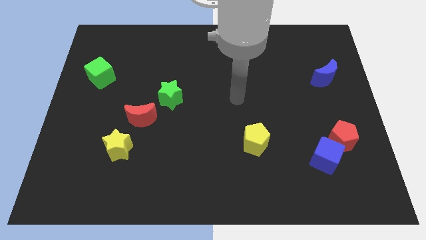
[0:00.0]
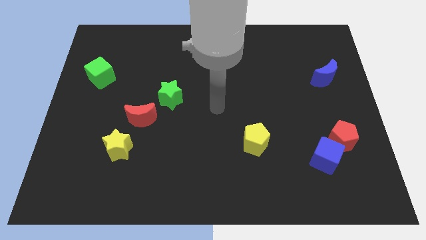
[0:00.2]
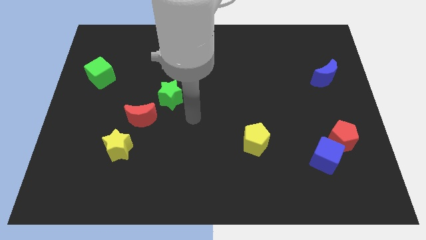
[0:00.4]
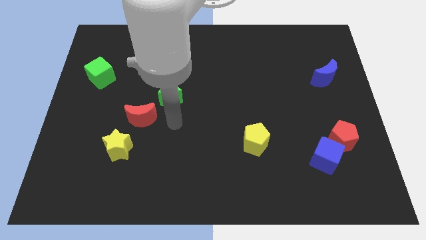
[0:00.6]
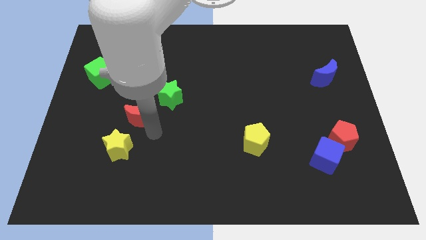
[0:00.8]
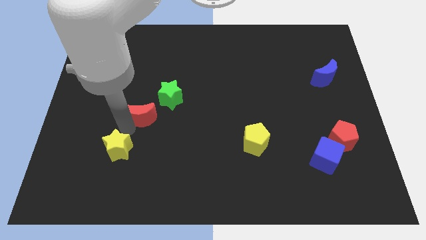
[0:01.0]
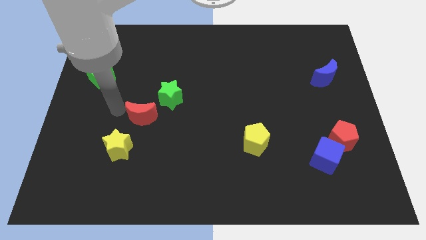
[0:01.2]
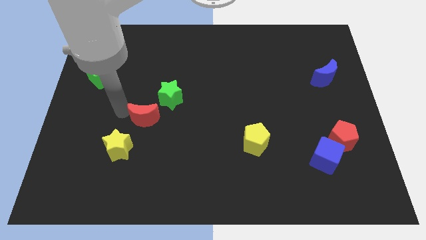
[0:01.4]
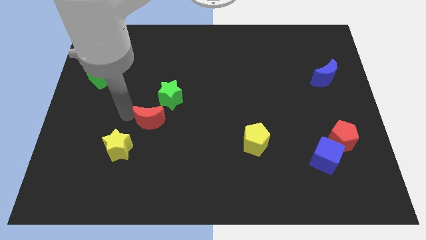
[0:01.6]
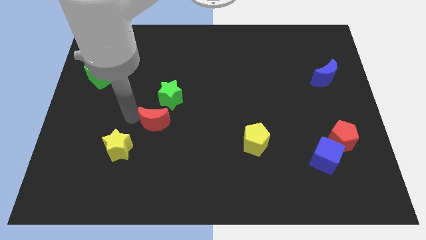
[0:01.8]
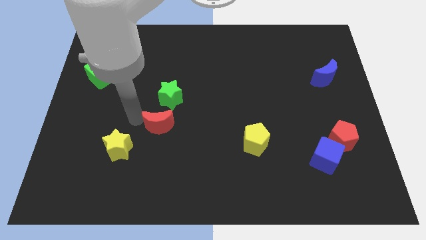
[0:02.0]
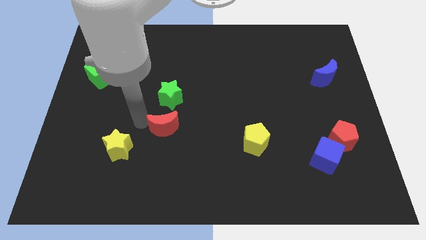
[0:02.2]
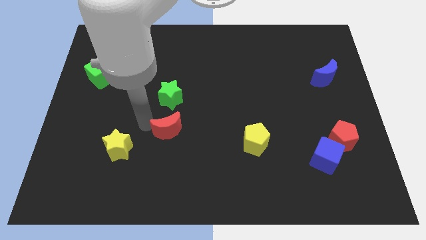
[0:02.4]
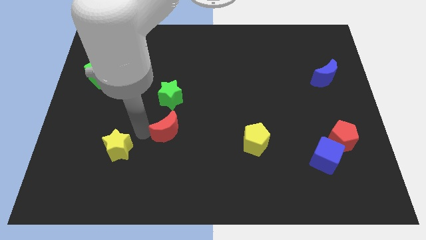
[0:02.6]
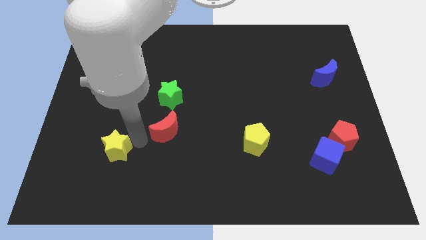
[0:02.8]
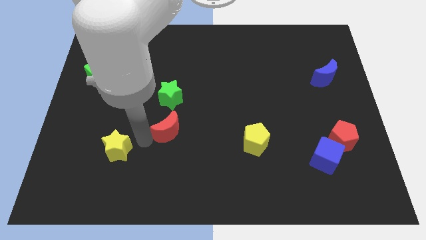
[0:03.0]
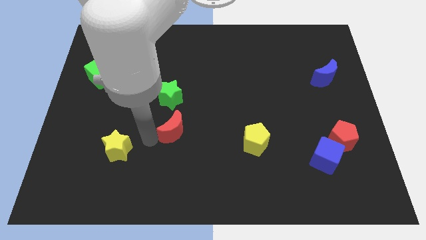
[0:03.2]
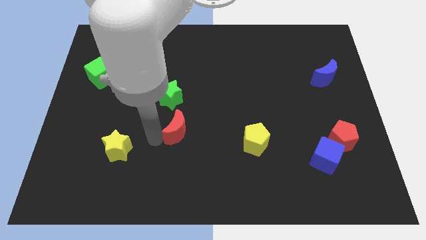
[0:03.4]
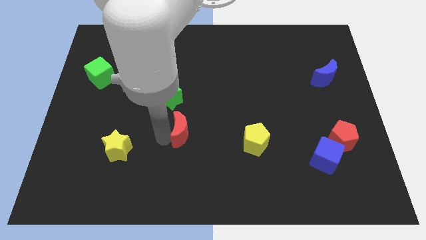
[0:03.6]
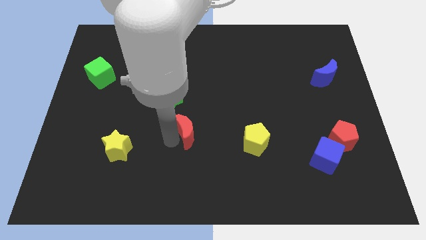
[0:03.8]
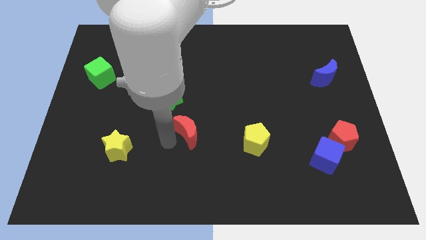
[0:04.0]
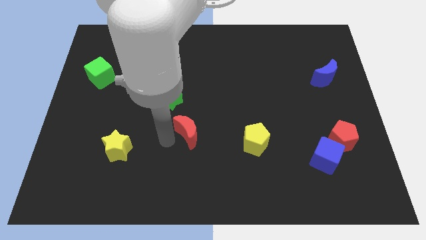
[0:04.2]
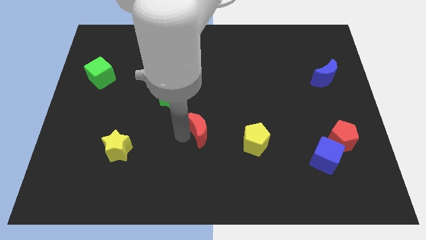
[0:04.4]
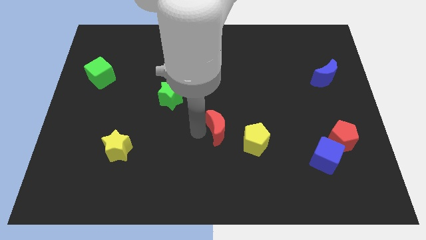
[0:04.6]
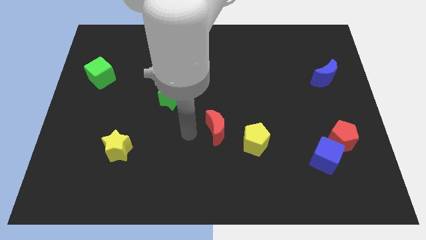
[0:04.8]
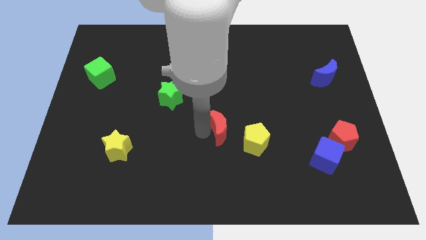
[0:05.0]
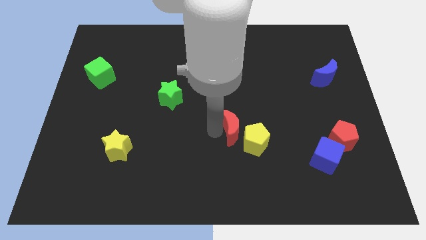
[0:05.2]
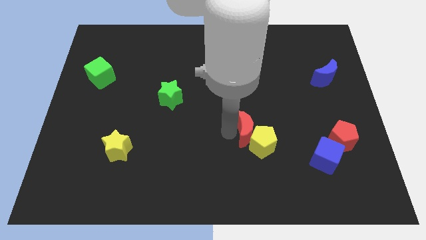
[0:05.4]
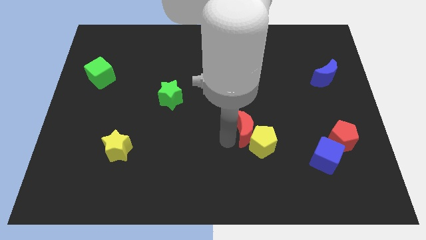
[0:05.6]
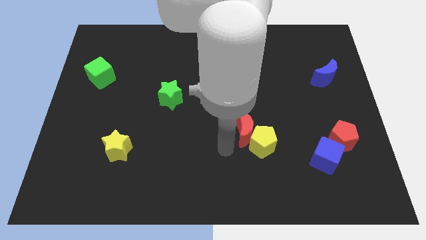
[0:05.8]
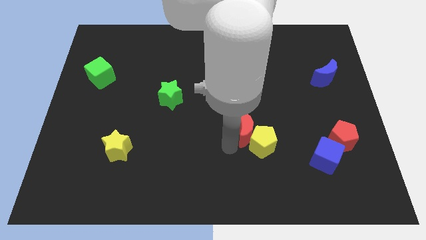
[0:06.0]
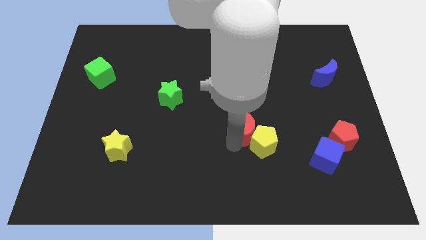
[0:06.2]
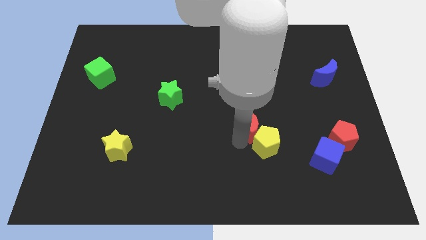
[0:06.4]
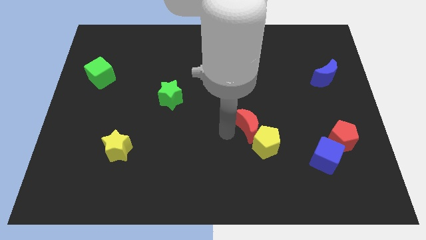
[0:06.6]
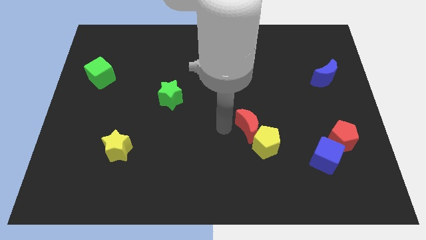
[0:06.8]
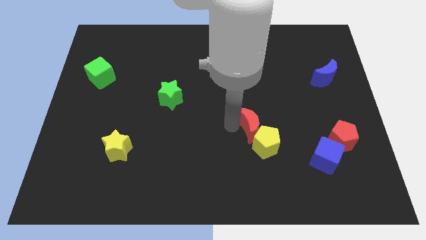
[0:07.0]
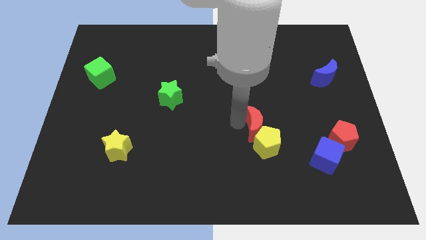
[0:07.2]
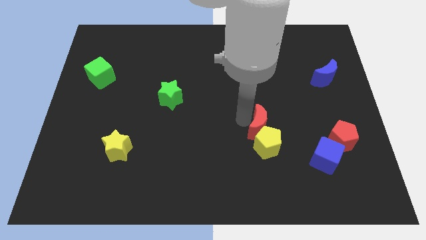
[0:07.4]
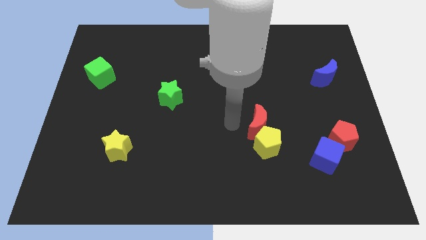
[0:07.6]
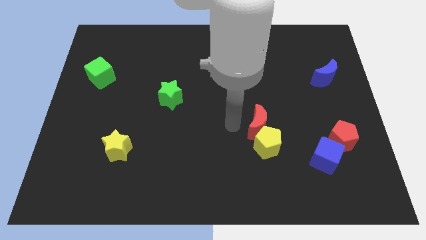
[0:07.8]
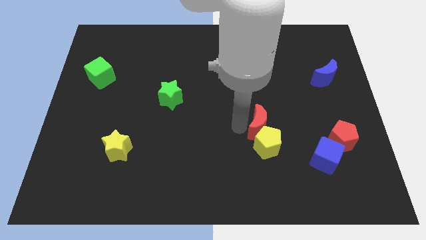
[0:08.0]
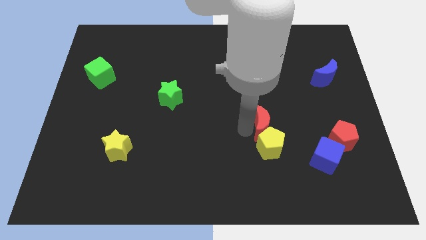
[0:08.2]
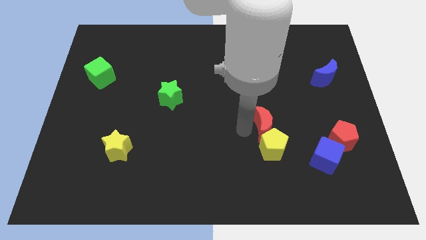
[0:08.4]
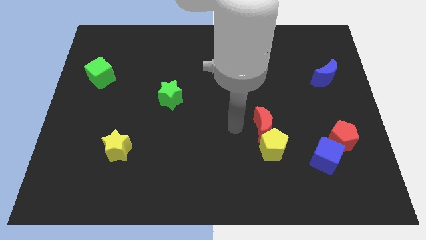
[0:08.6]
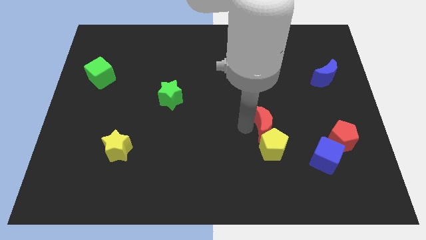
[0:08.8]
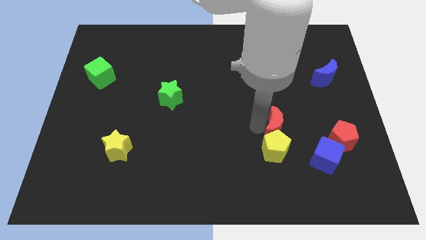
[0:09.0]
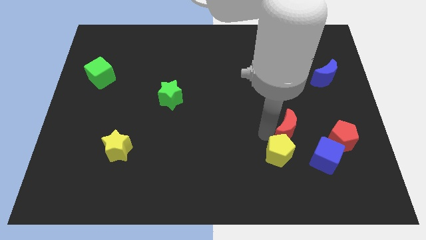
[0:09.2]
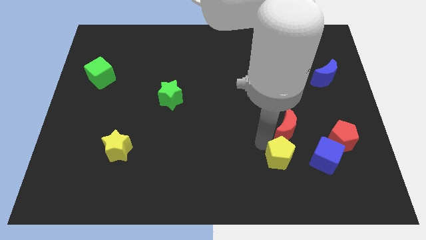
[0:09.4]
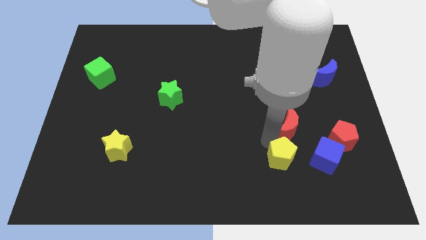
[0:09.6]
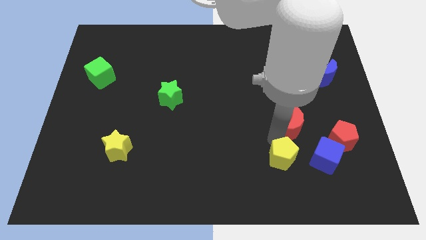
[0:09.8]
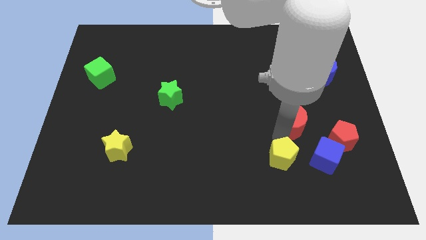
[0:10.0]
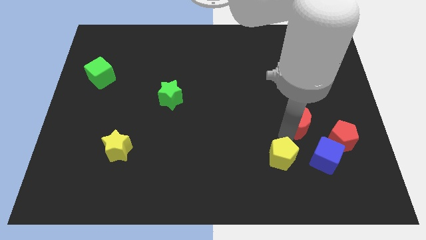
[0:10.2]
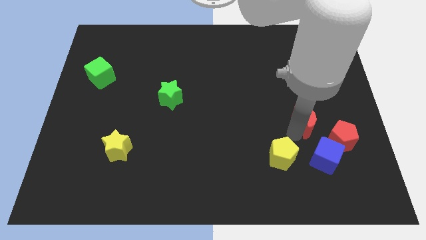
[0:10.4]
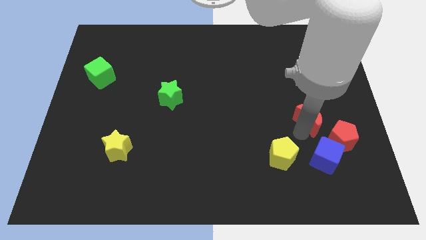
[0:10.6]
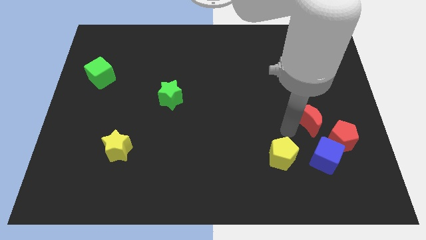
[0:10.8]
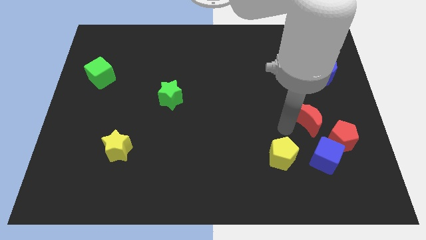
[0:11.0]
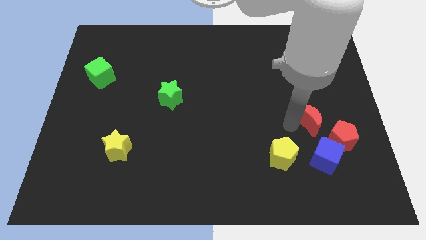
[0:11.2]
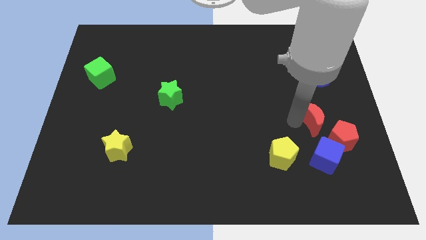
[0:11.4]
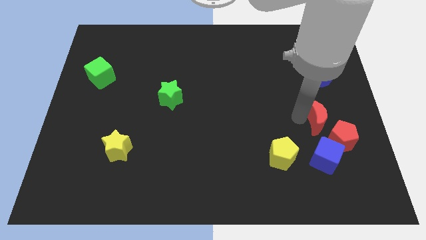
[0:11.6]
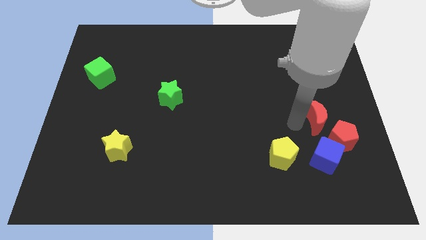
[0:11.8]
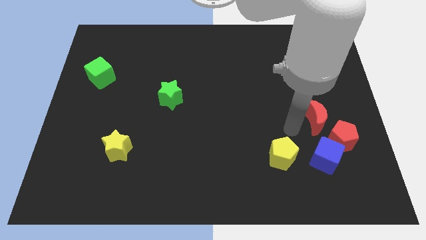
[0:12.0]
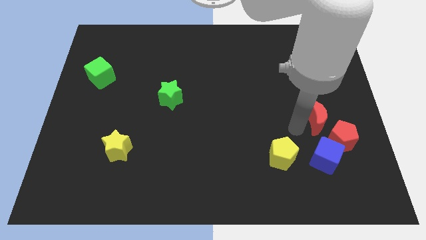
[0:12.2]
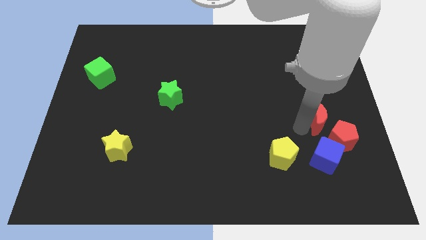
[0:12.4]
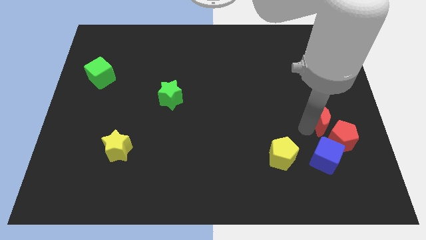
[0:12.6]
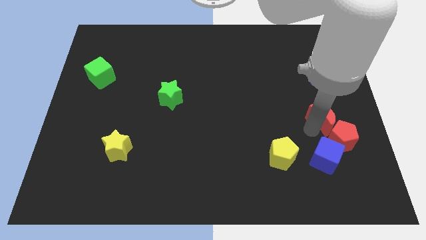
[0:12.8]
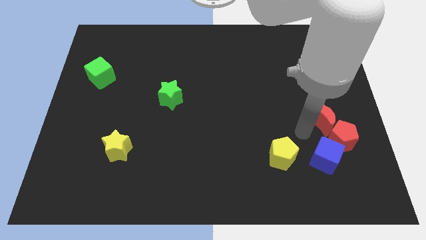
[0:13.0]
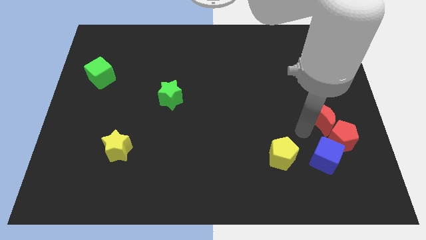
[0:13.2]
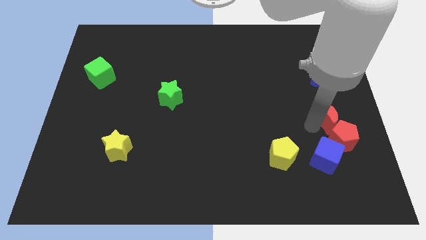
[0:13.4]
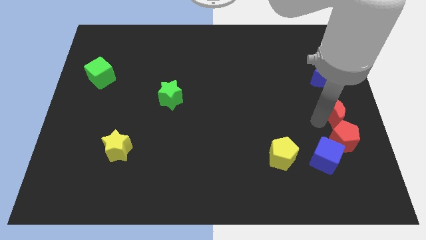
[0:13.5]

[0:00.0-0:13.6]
move the red moon to the right side of the board
